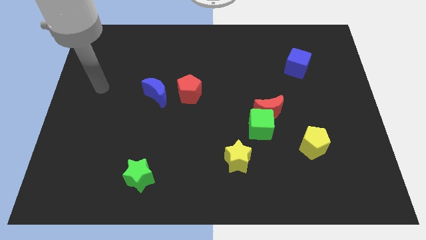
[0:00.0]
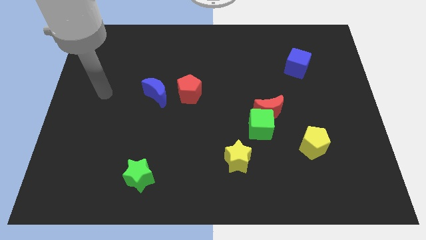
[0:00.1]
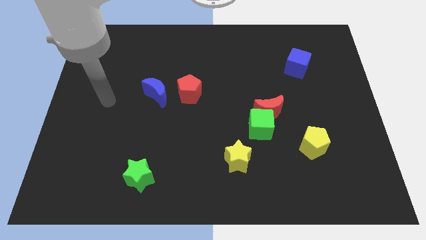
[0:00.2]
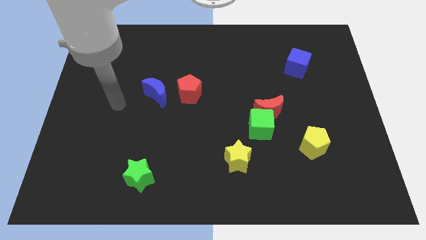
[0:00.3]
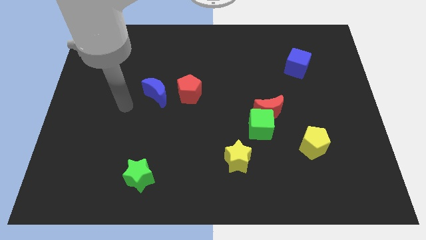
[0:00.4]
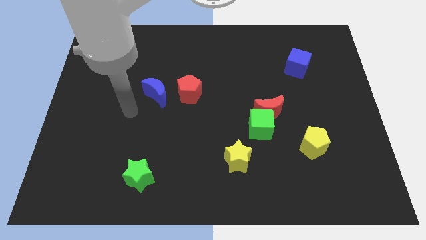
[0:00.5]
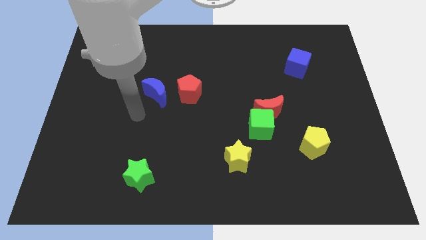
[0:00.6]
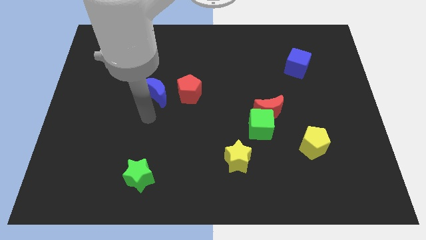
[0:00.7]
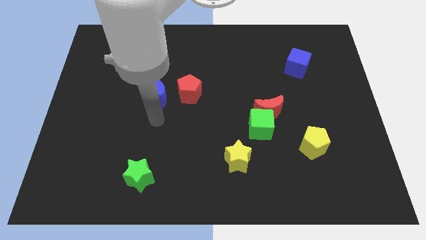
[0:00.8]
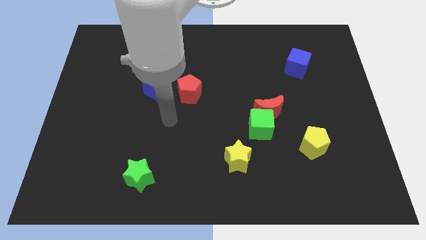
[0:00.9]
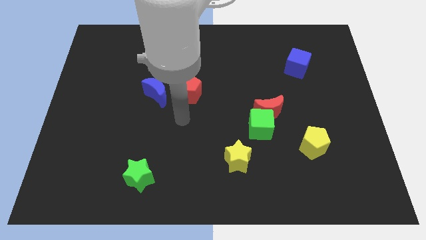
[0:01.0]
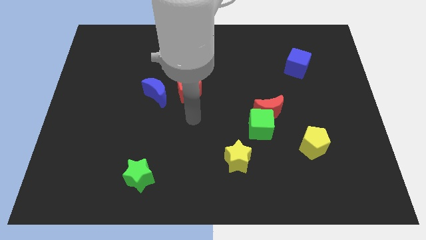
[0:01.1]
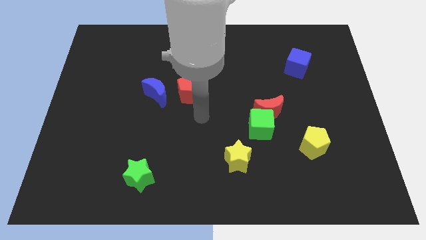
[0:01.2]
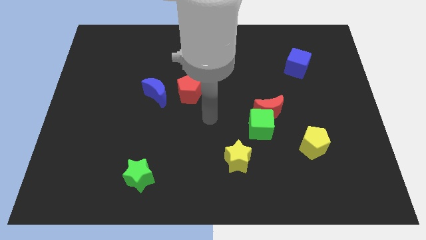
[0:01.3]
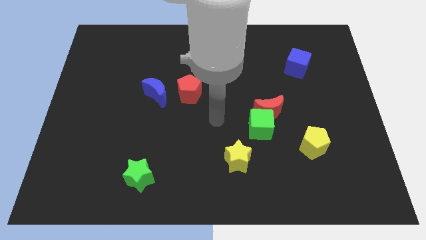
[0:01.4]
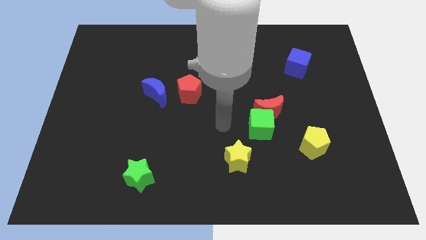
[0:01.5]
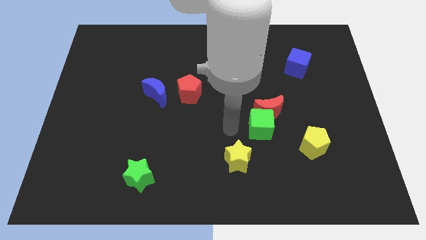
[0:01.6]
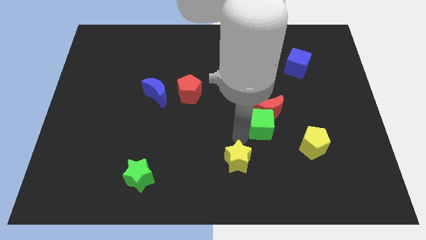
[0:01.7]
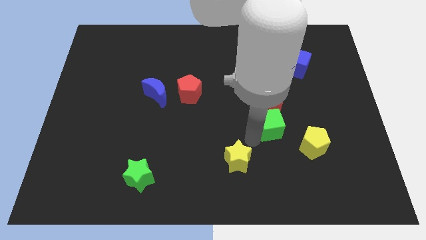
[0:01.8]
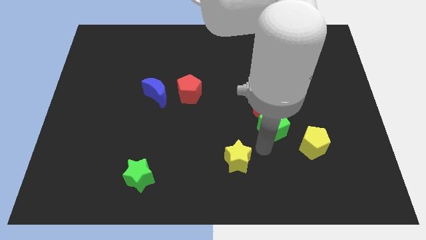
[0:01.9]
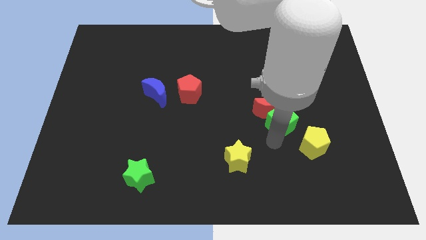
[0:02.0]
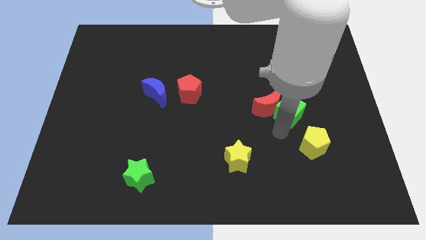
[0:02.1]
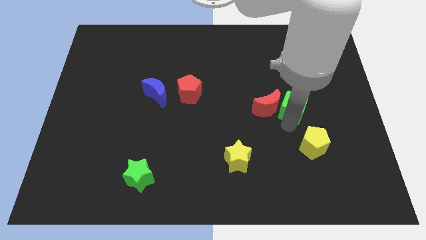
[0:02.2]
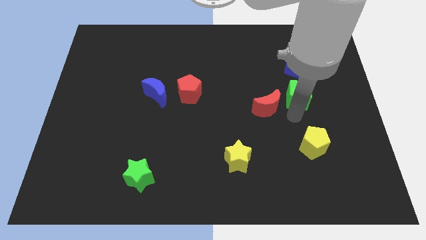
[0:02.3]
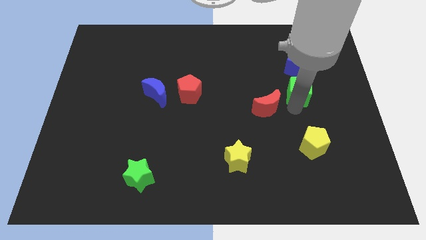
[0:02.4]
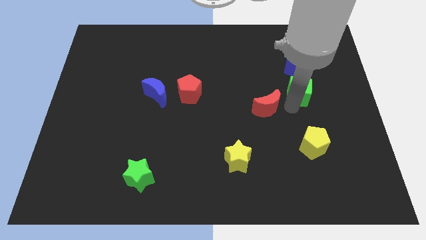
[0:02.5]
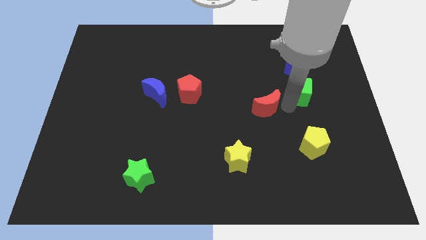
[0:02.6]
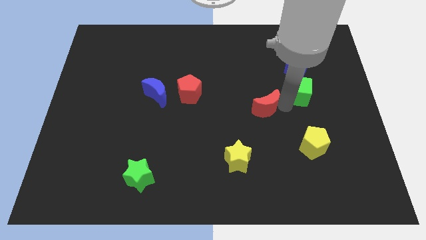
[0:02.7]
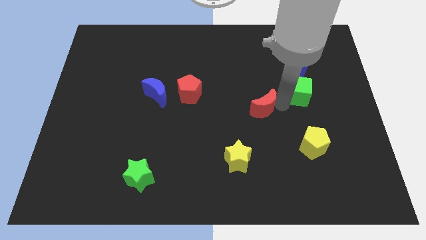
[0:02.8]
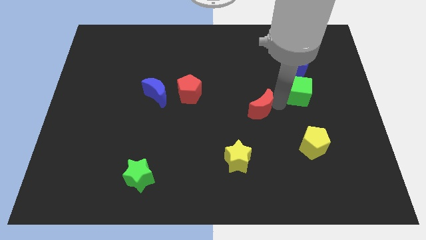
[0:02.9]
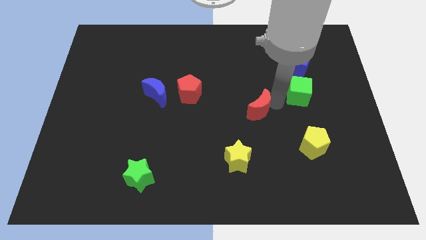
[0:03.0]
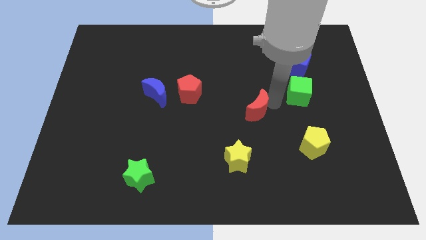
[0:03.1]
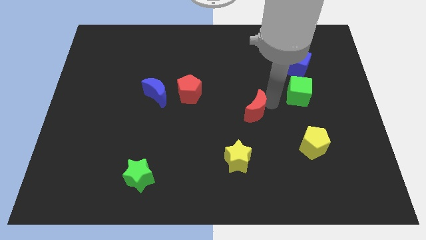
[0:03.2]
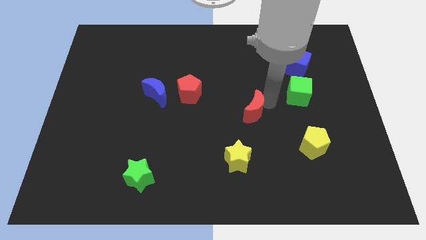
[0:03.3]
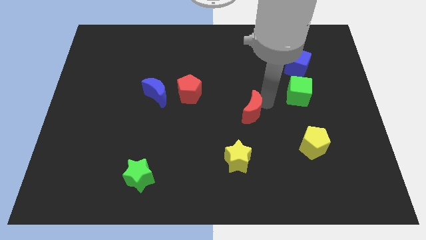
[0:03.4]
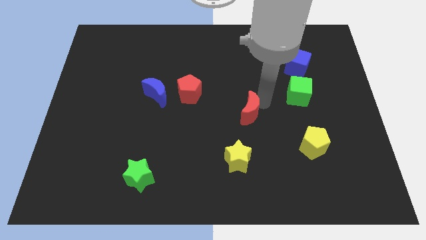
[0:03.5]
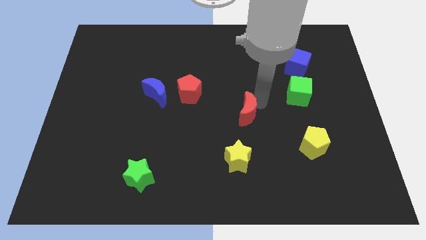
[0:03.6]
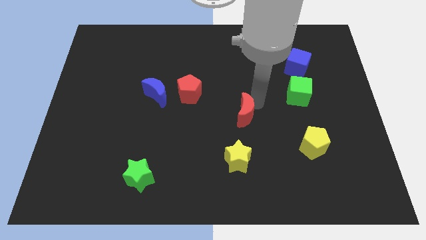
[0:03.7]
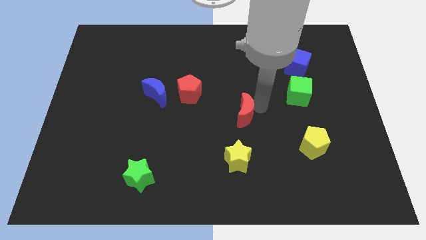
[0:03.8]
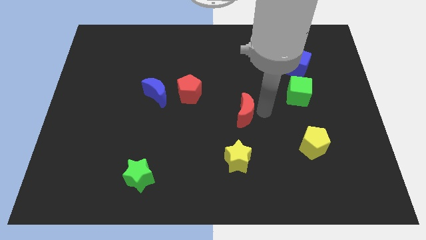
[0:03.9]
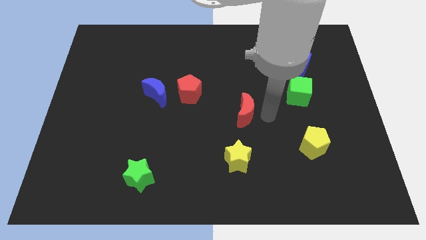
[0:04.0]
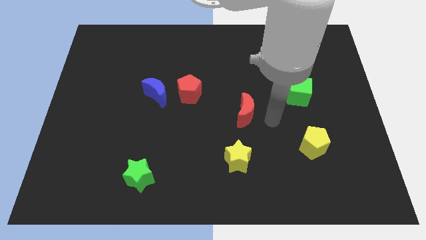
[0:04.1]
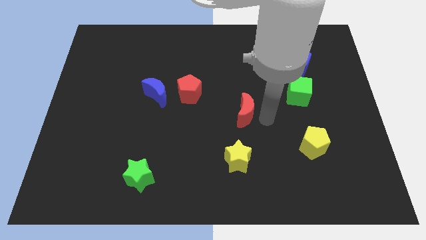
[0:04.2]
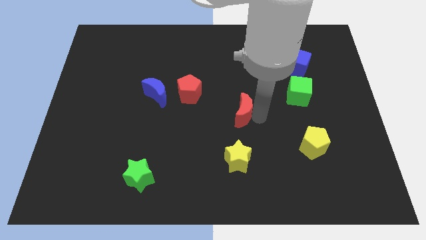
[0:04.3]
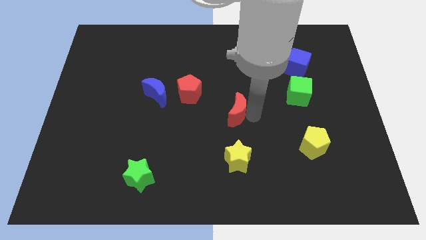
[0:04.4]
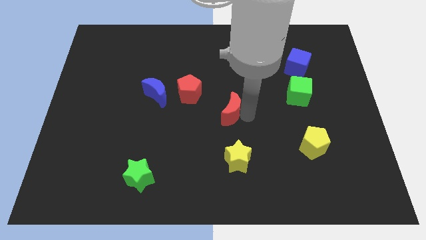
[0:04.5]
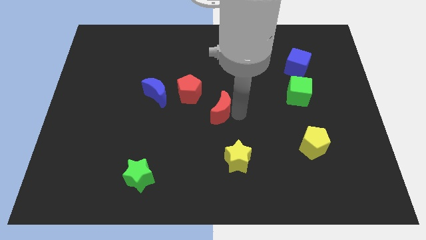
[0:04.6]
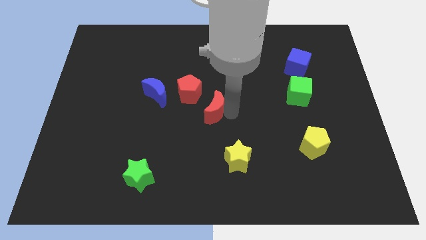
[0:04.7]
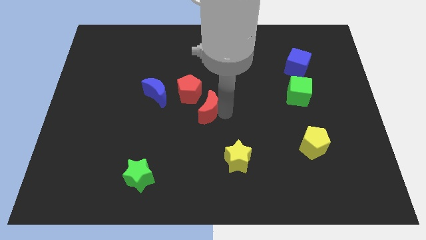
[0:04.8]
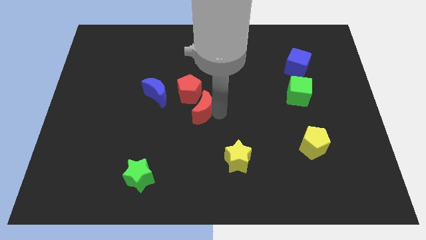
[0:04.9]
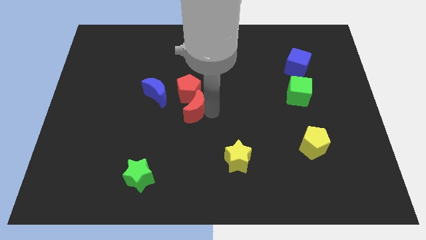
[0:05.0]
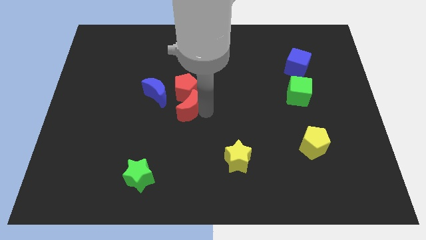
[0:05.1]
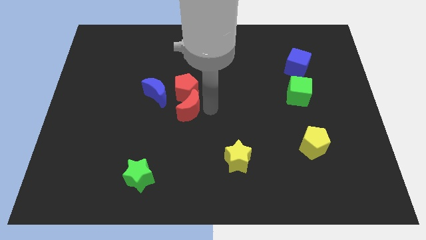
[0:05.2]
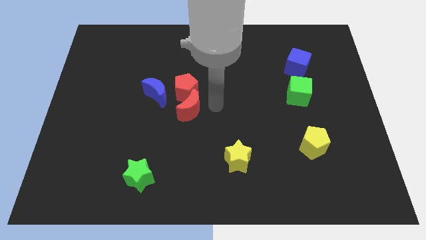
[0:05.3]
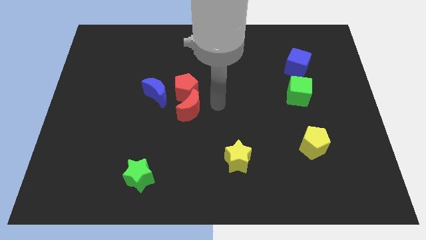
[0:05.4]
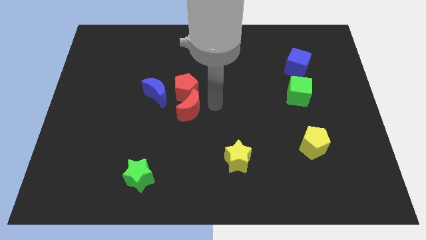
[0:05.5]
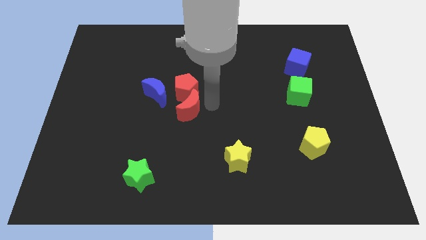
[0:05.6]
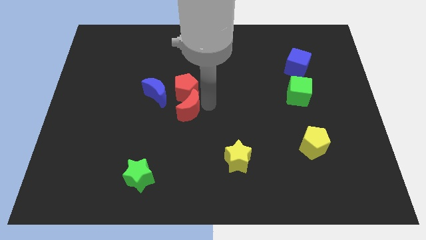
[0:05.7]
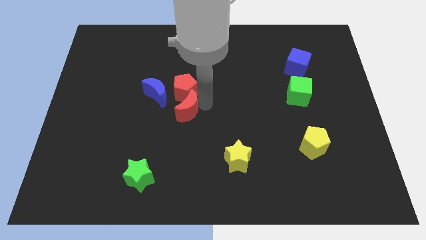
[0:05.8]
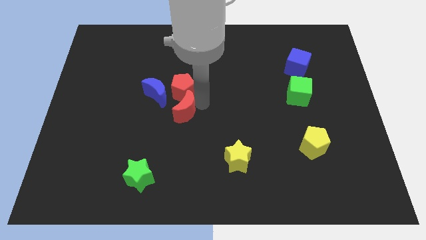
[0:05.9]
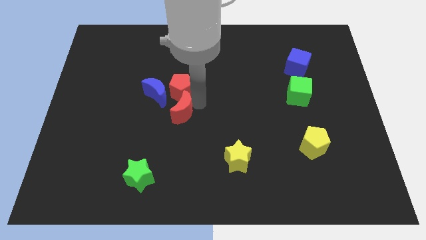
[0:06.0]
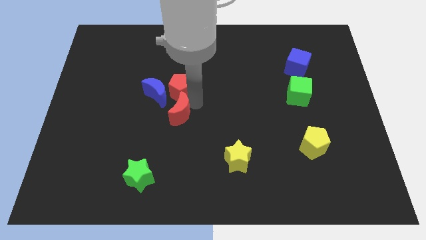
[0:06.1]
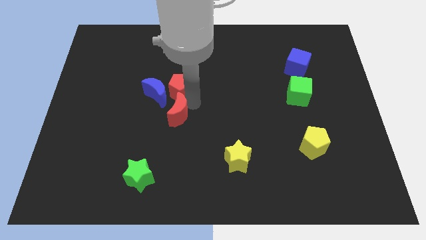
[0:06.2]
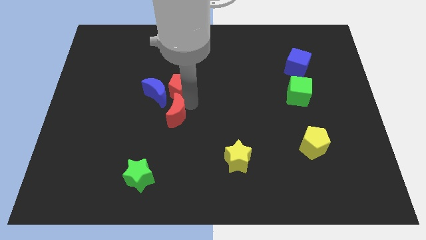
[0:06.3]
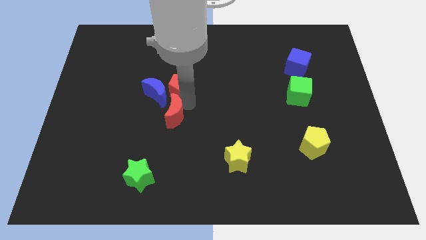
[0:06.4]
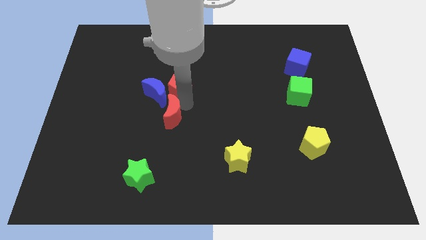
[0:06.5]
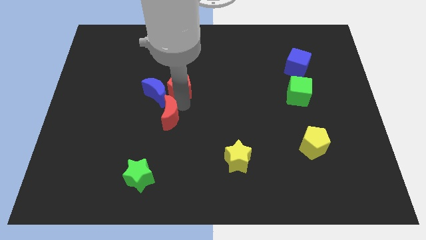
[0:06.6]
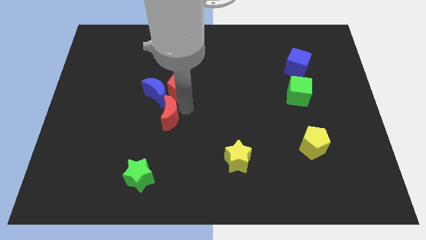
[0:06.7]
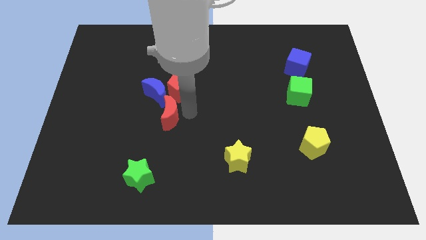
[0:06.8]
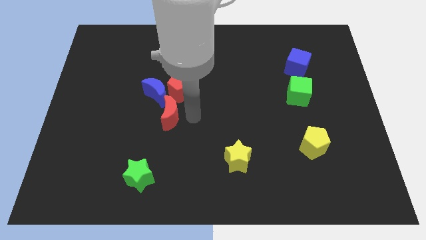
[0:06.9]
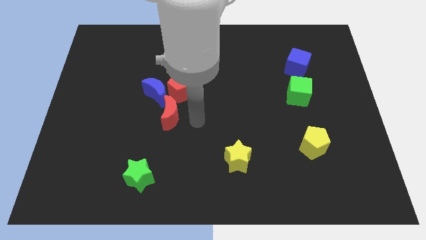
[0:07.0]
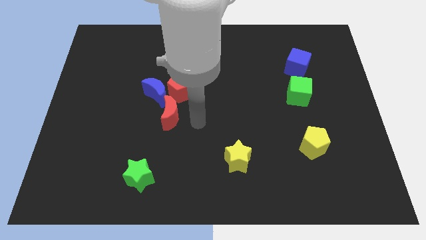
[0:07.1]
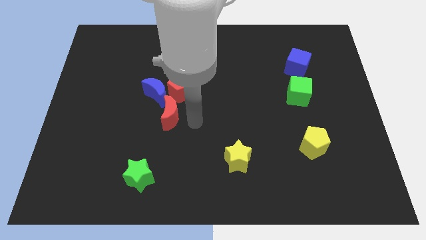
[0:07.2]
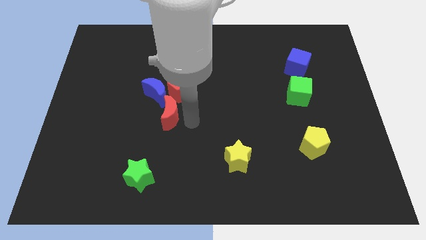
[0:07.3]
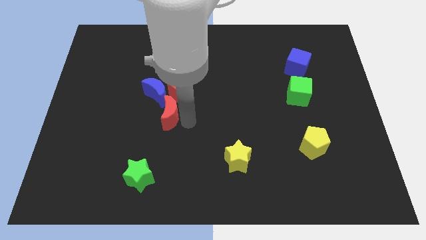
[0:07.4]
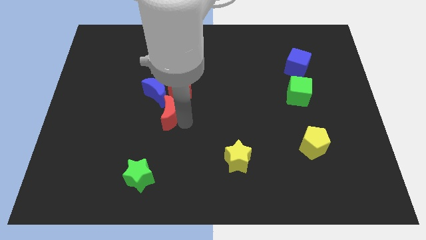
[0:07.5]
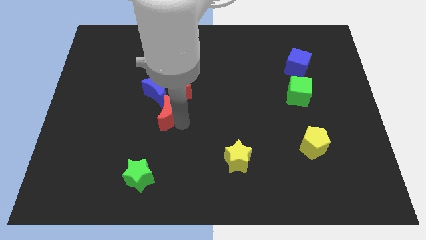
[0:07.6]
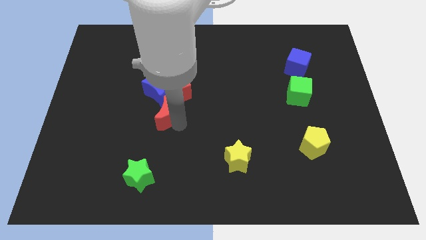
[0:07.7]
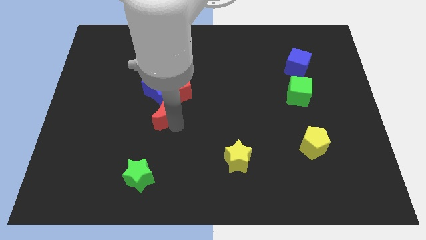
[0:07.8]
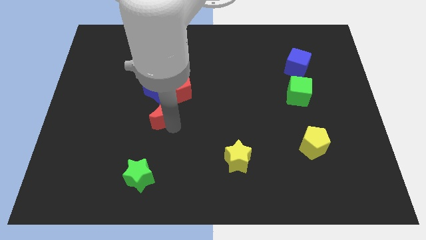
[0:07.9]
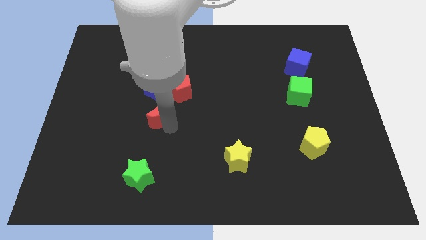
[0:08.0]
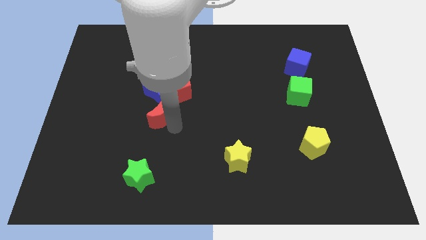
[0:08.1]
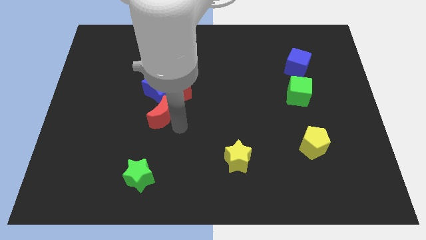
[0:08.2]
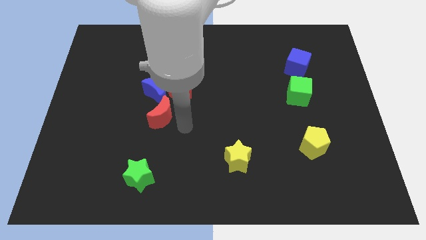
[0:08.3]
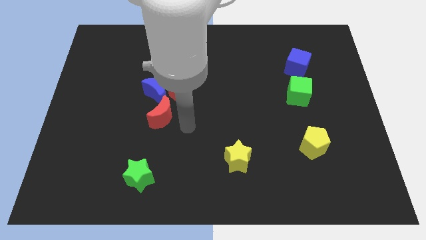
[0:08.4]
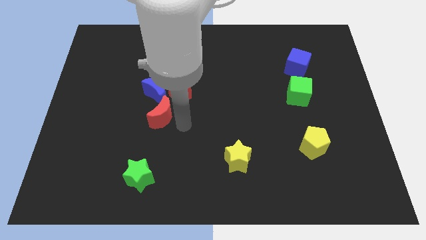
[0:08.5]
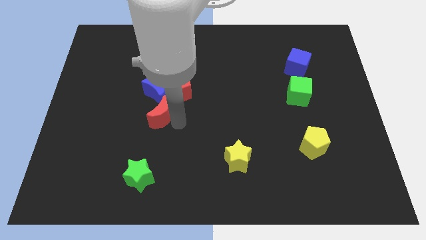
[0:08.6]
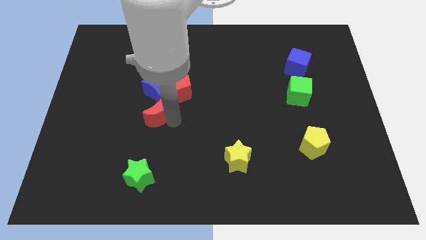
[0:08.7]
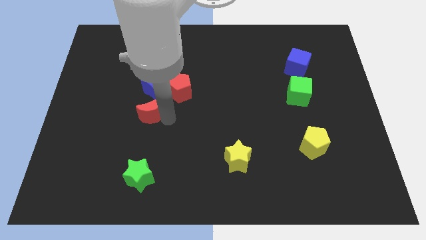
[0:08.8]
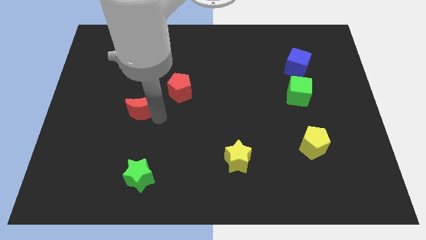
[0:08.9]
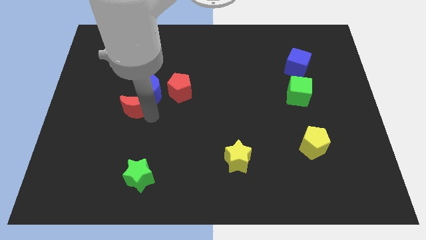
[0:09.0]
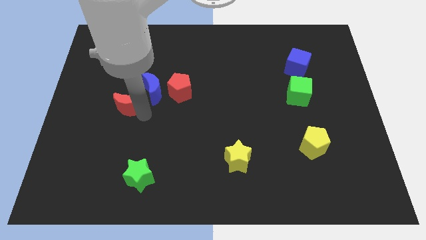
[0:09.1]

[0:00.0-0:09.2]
move the red moon left of the red pentagon
